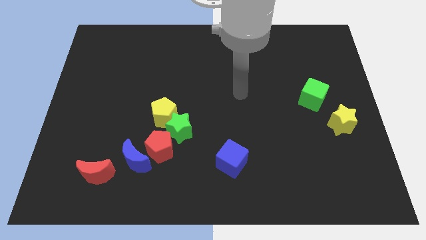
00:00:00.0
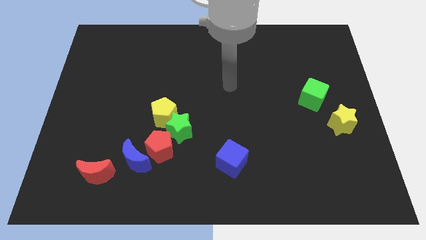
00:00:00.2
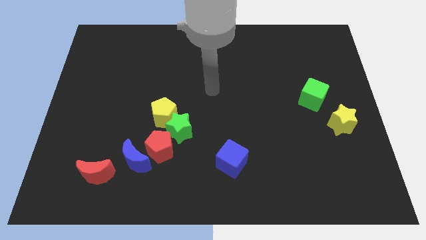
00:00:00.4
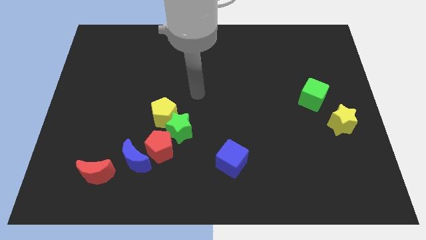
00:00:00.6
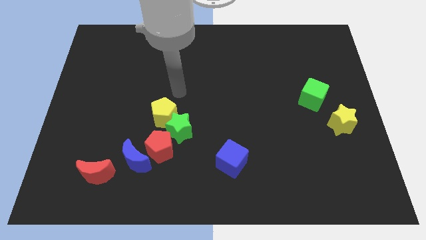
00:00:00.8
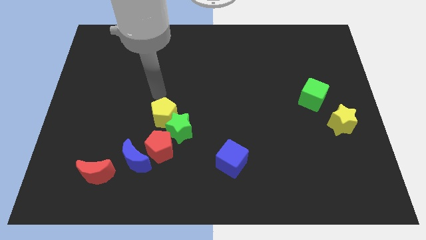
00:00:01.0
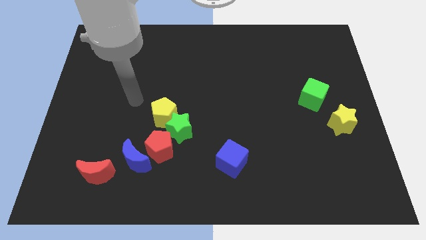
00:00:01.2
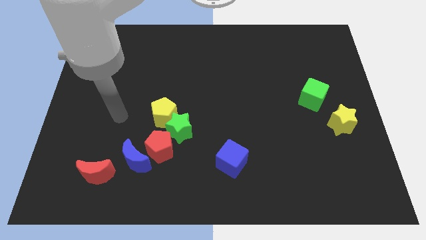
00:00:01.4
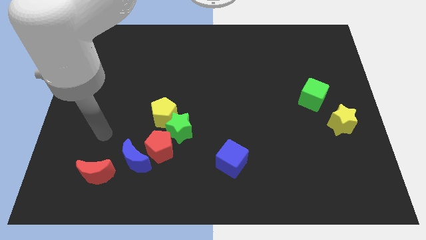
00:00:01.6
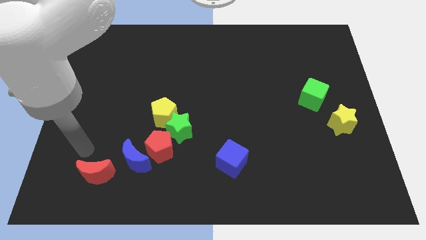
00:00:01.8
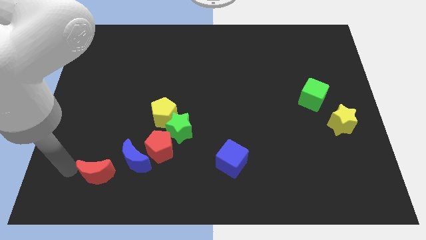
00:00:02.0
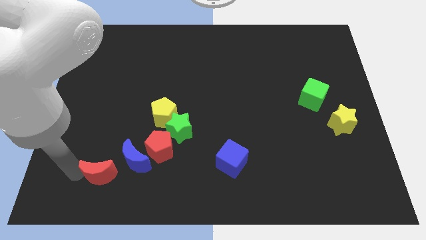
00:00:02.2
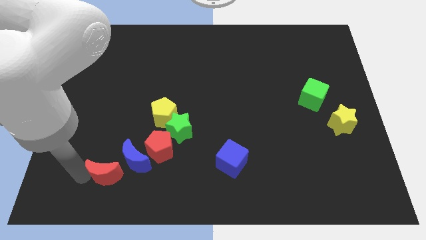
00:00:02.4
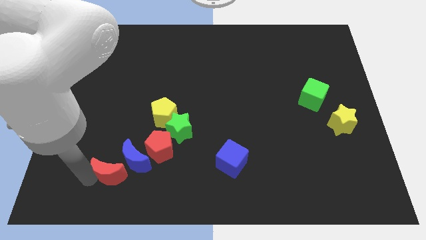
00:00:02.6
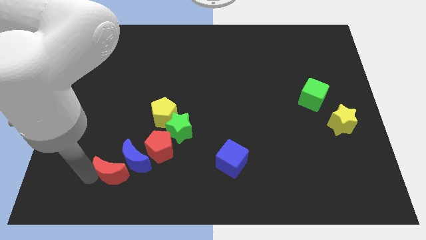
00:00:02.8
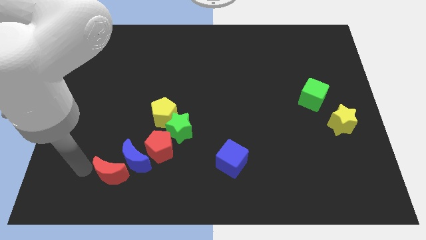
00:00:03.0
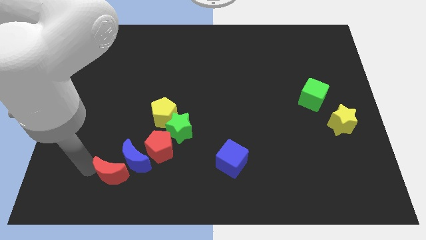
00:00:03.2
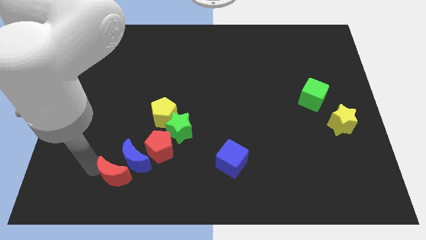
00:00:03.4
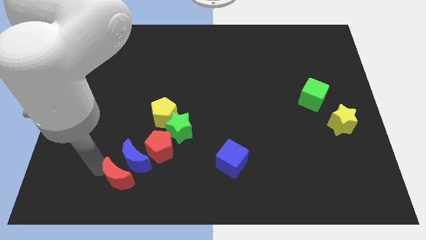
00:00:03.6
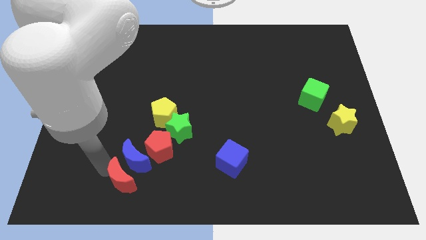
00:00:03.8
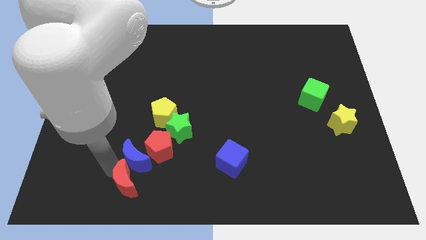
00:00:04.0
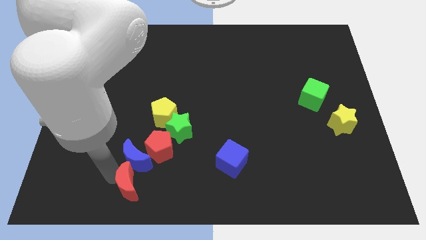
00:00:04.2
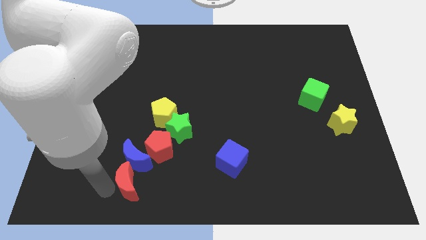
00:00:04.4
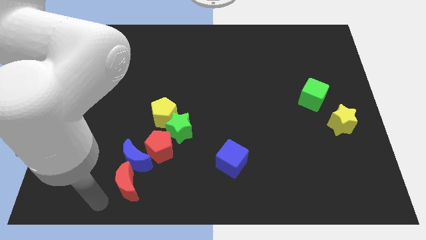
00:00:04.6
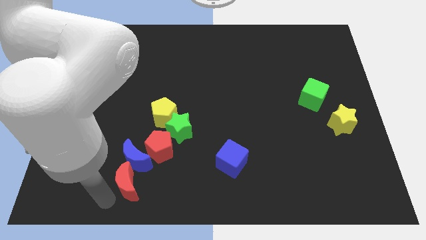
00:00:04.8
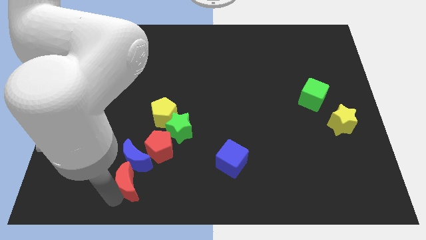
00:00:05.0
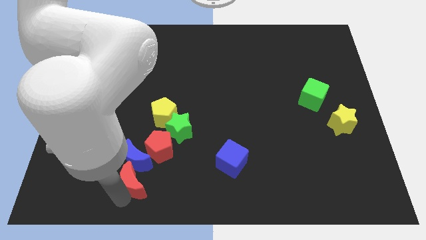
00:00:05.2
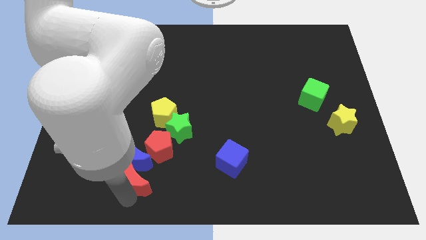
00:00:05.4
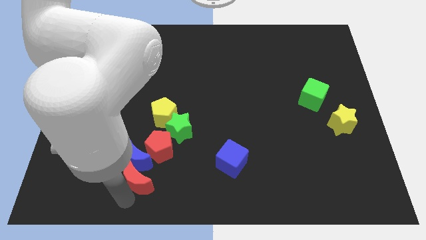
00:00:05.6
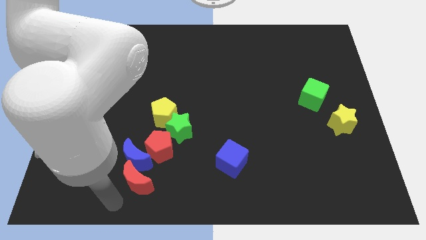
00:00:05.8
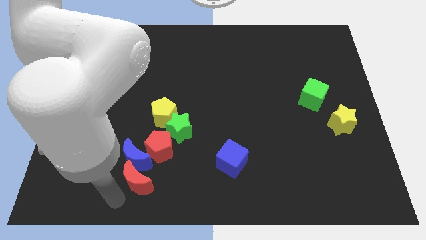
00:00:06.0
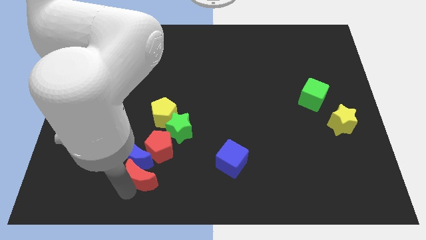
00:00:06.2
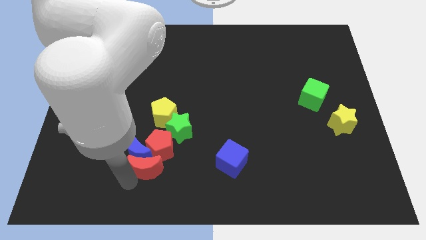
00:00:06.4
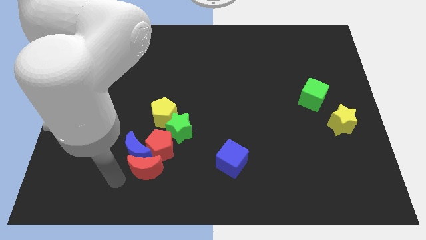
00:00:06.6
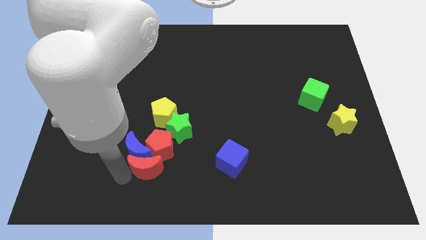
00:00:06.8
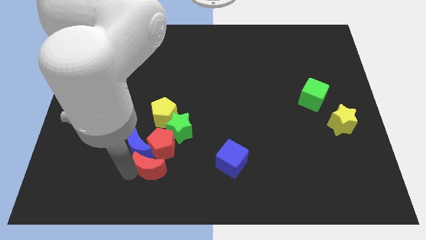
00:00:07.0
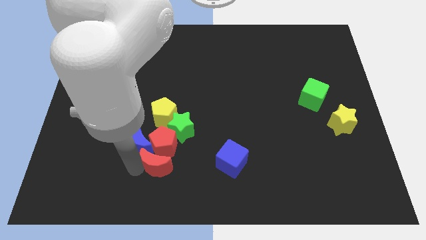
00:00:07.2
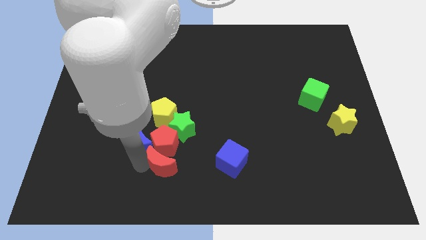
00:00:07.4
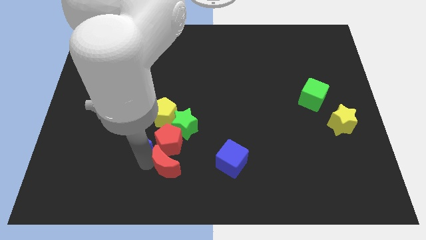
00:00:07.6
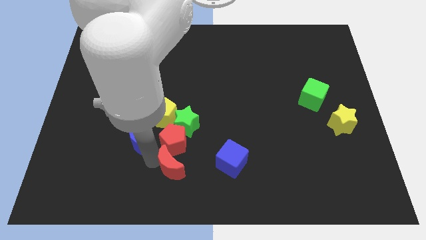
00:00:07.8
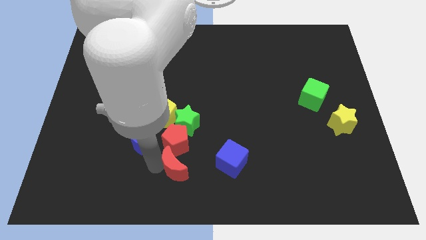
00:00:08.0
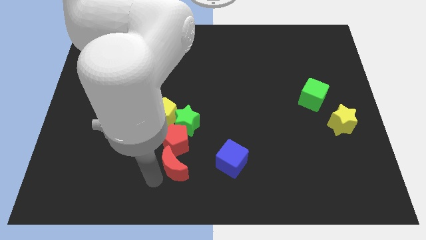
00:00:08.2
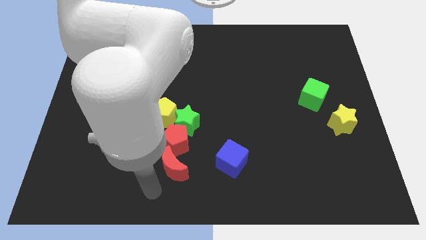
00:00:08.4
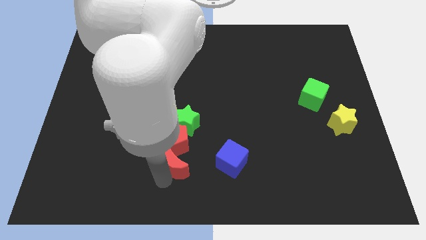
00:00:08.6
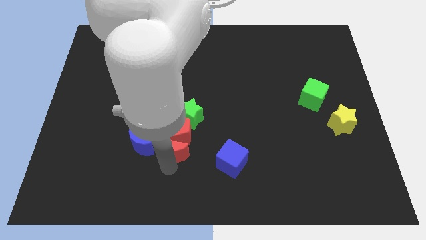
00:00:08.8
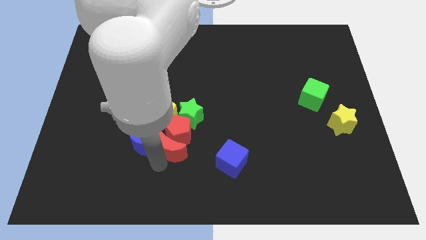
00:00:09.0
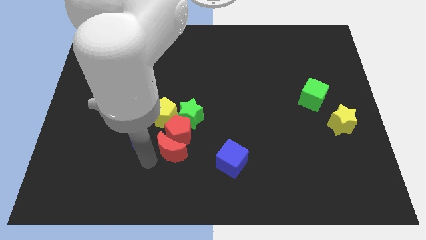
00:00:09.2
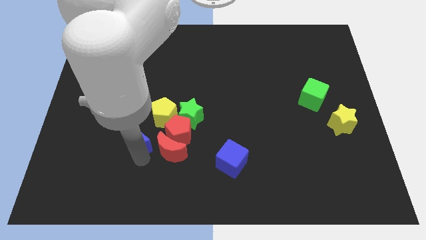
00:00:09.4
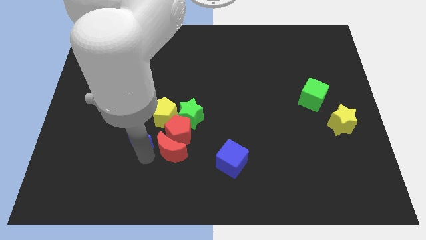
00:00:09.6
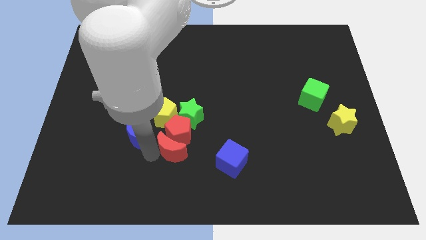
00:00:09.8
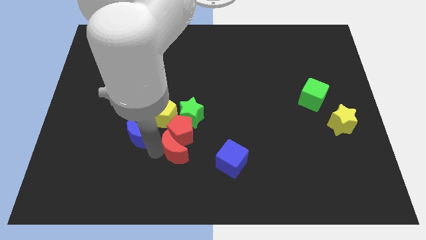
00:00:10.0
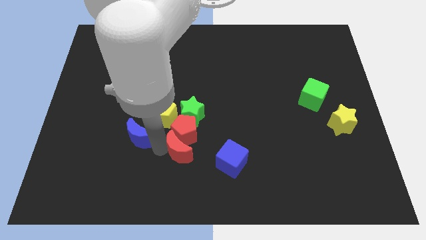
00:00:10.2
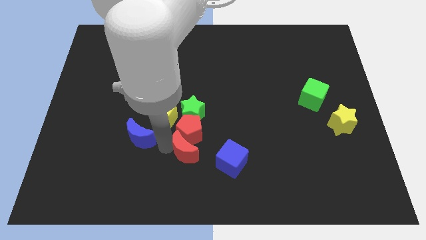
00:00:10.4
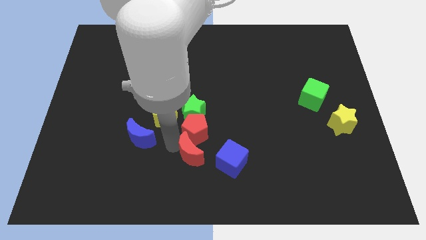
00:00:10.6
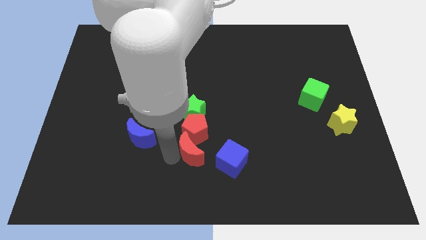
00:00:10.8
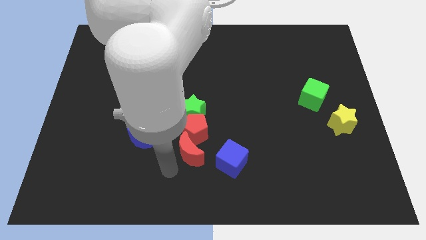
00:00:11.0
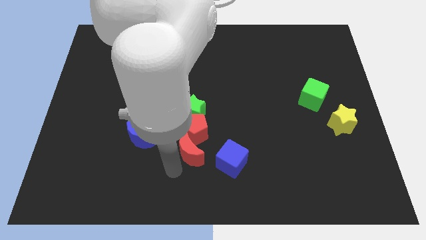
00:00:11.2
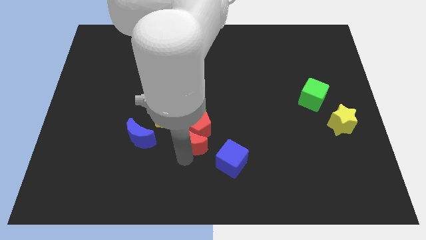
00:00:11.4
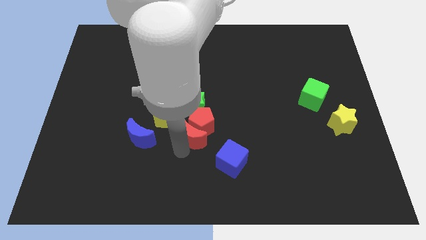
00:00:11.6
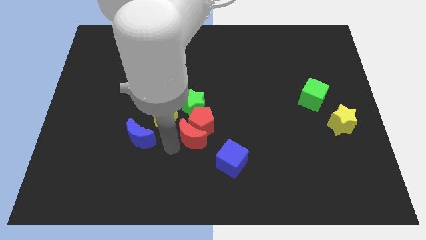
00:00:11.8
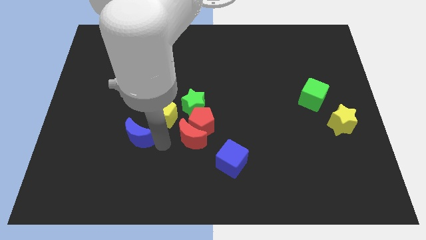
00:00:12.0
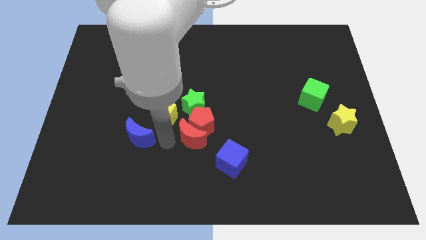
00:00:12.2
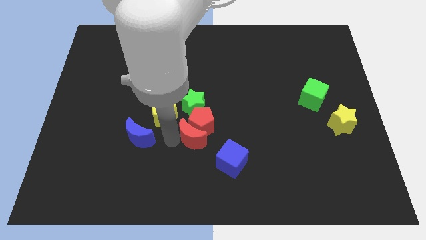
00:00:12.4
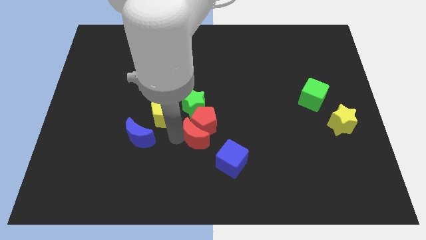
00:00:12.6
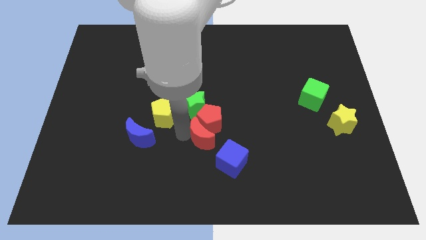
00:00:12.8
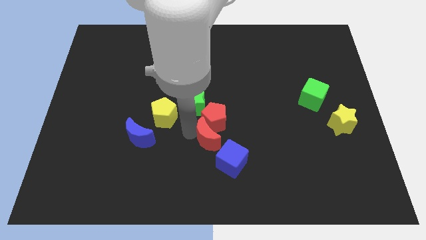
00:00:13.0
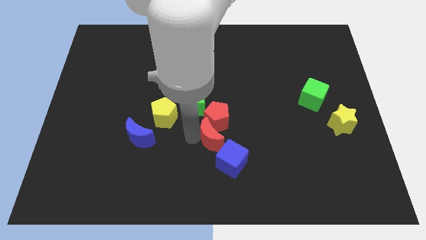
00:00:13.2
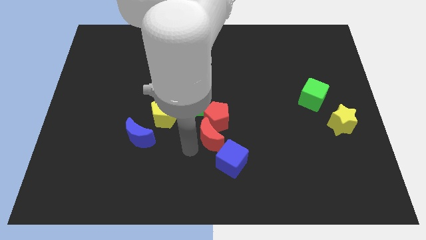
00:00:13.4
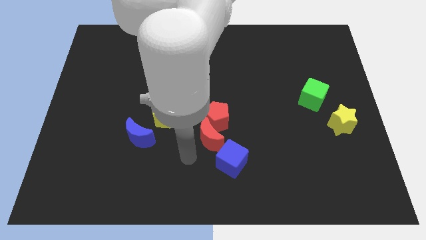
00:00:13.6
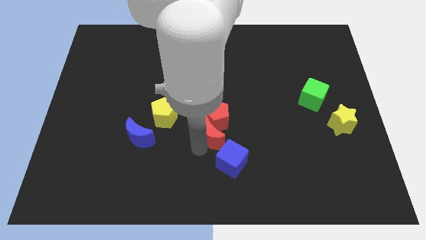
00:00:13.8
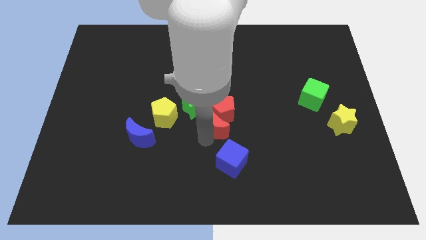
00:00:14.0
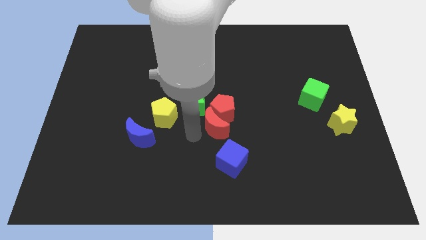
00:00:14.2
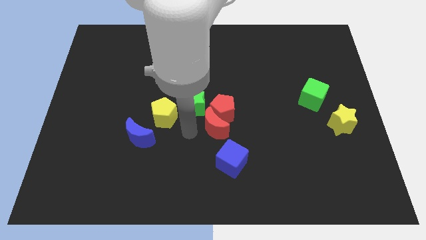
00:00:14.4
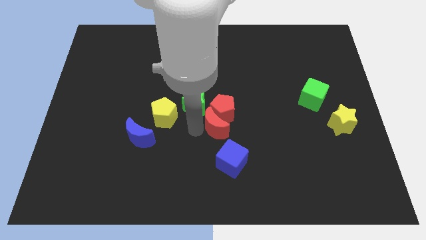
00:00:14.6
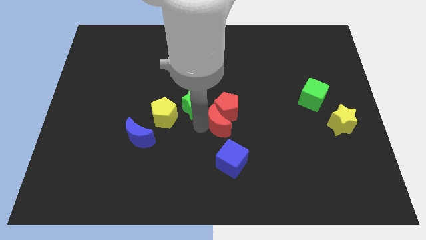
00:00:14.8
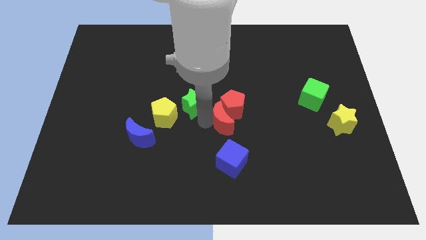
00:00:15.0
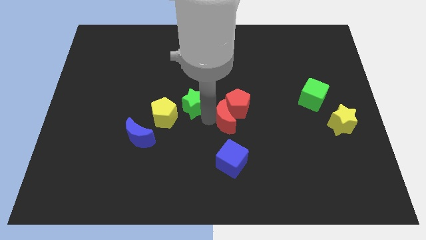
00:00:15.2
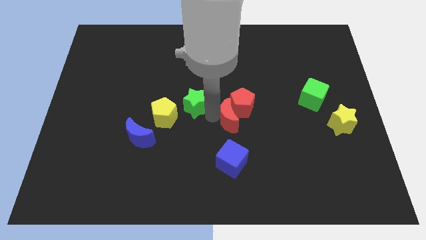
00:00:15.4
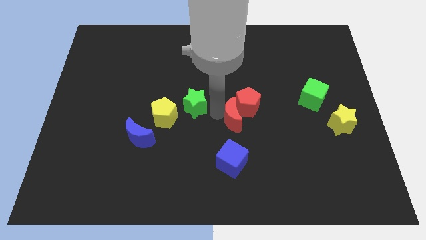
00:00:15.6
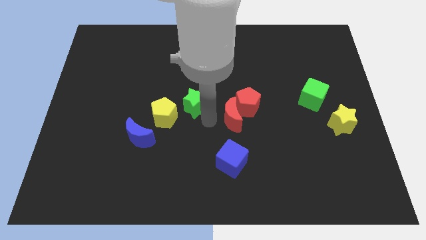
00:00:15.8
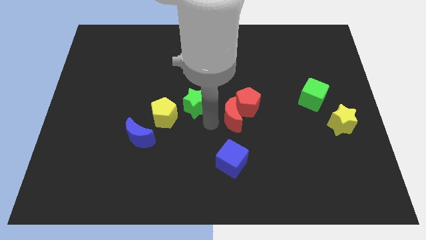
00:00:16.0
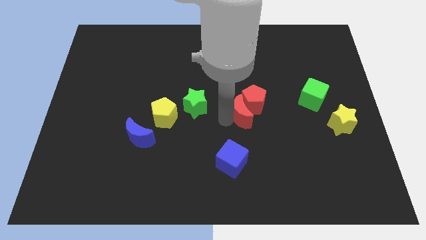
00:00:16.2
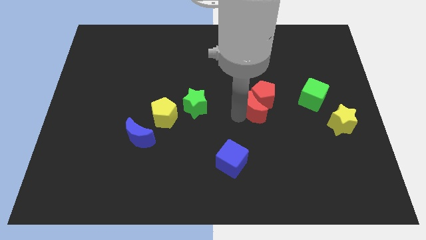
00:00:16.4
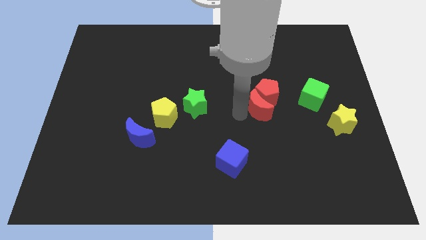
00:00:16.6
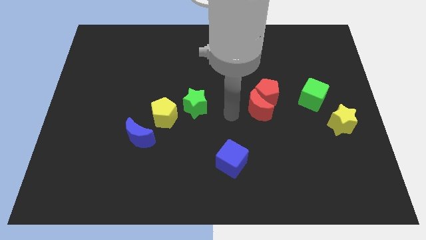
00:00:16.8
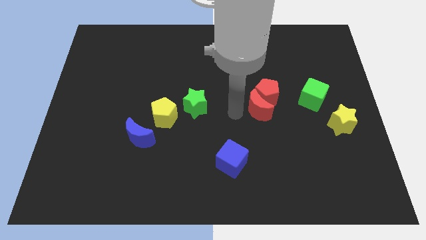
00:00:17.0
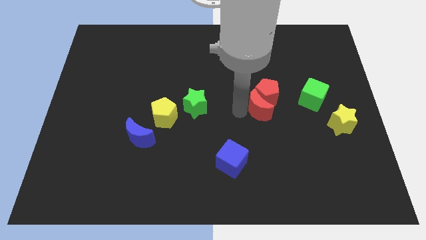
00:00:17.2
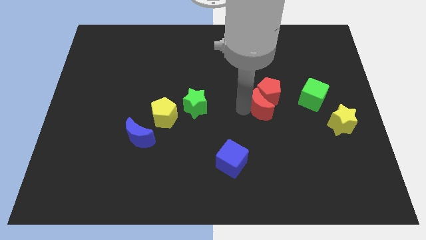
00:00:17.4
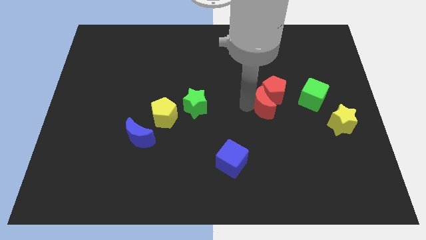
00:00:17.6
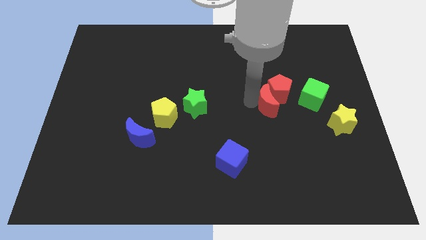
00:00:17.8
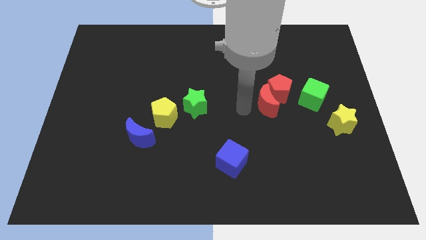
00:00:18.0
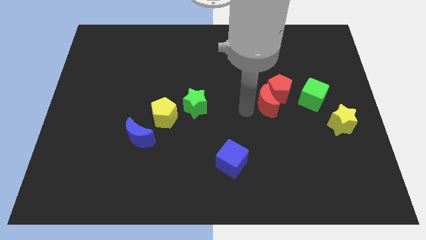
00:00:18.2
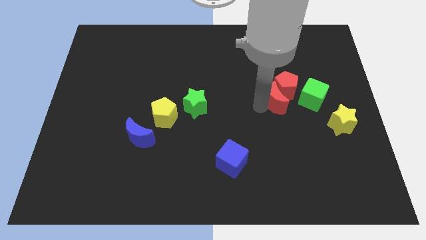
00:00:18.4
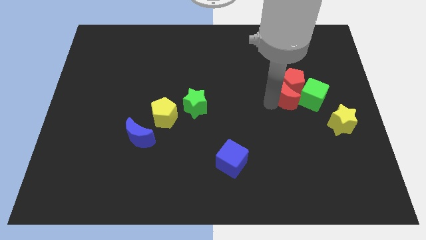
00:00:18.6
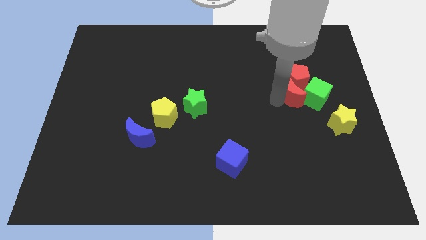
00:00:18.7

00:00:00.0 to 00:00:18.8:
put the red moon towards the green cube
